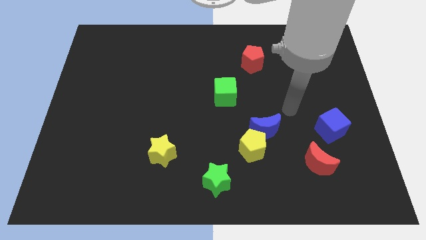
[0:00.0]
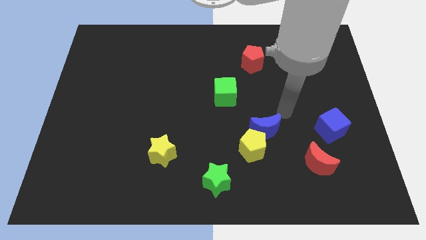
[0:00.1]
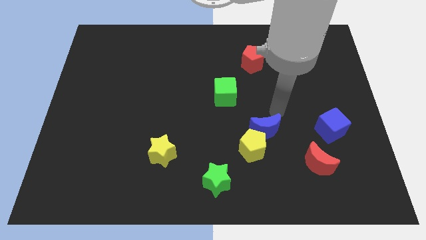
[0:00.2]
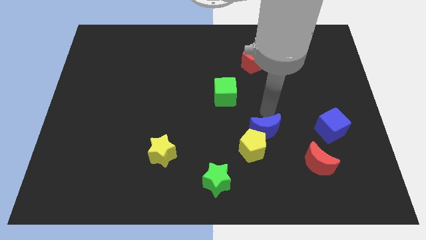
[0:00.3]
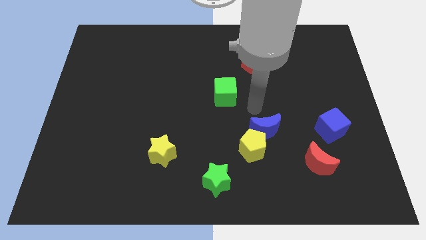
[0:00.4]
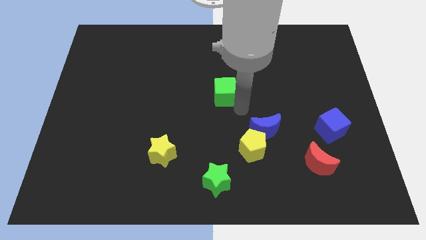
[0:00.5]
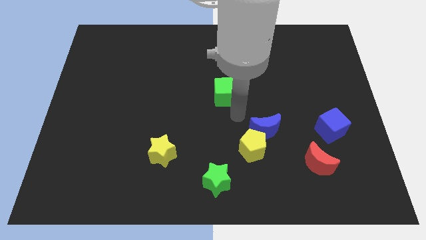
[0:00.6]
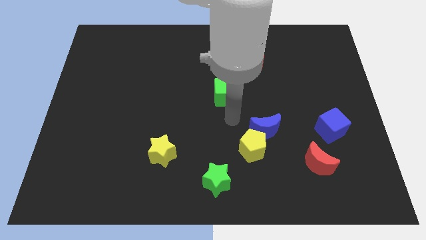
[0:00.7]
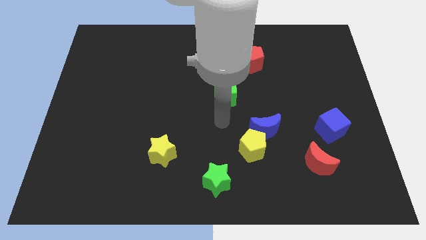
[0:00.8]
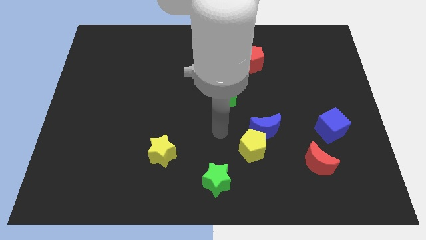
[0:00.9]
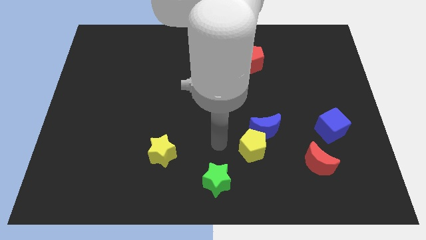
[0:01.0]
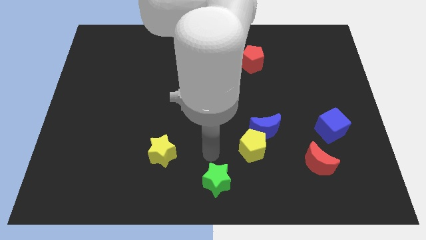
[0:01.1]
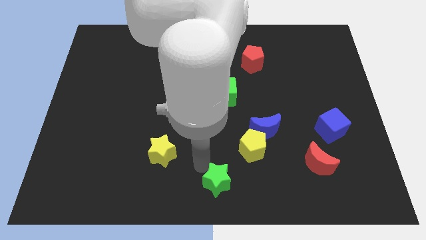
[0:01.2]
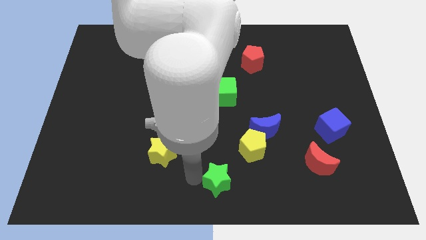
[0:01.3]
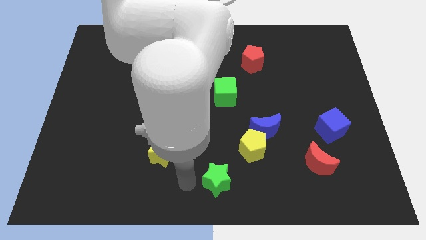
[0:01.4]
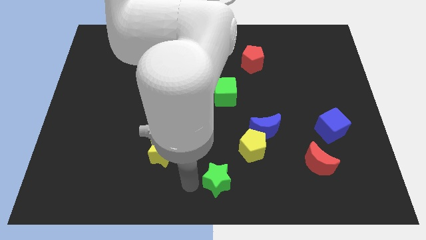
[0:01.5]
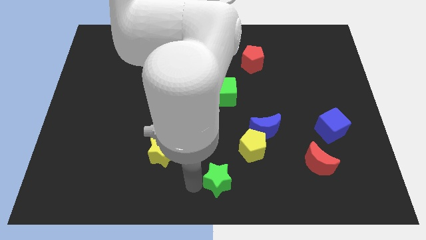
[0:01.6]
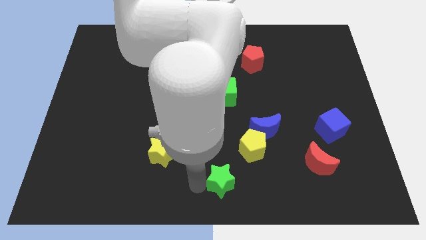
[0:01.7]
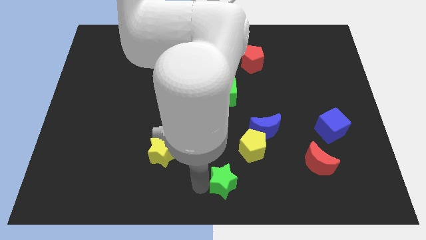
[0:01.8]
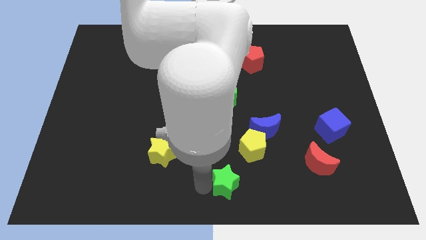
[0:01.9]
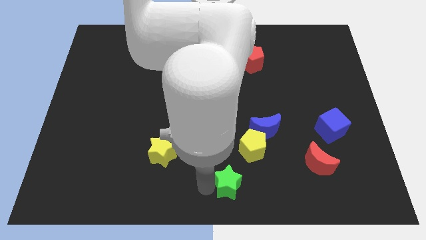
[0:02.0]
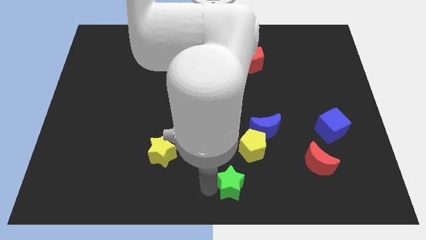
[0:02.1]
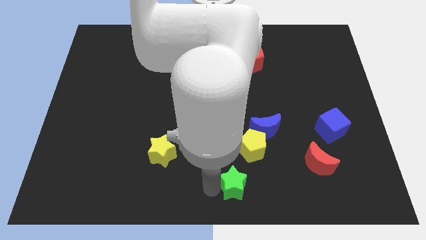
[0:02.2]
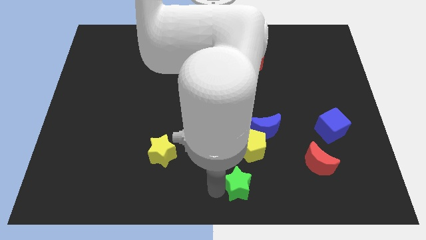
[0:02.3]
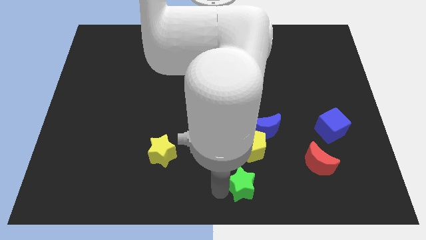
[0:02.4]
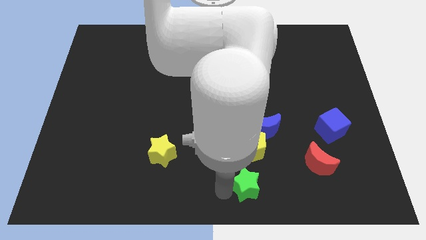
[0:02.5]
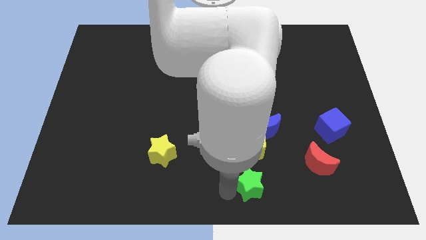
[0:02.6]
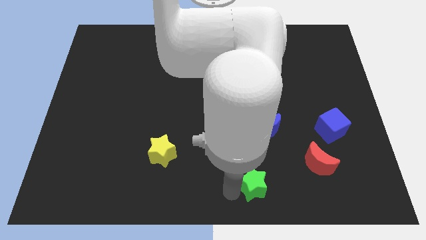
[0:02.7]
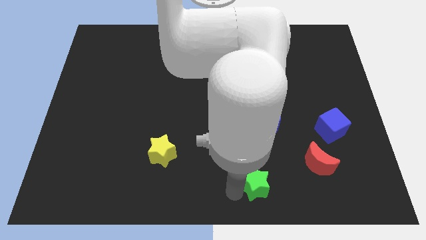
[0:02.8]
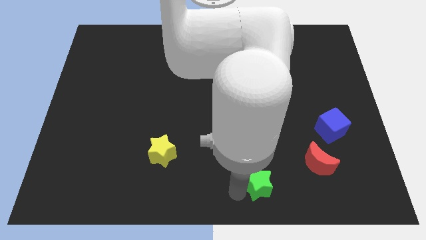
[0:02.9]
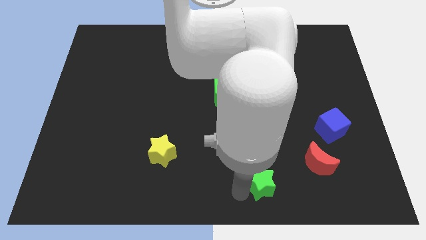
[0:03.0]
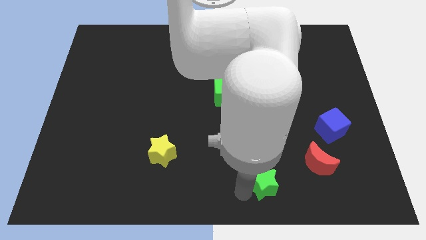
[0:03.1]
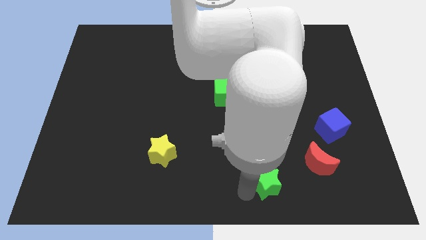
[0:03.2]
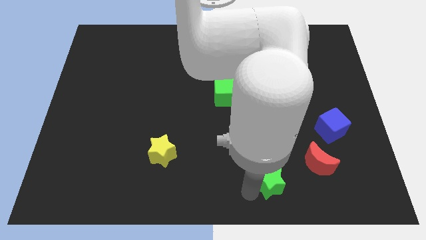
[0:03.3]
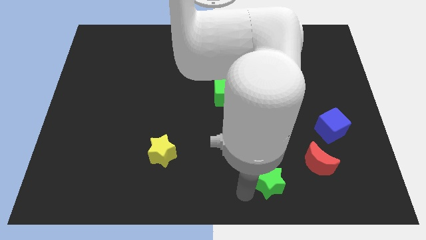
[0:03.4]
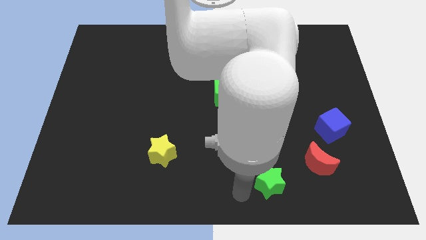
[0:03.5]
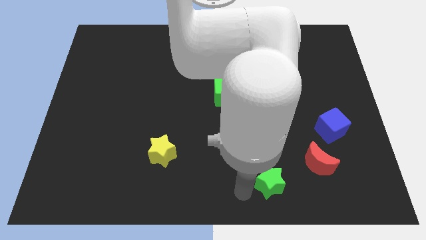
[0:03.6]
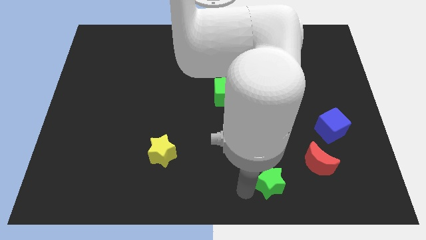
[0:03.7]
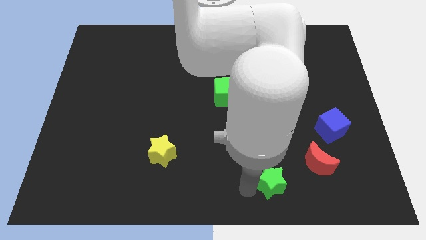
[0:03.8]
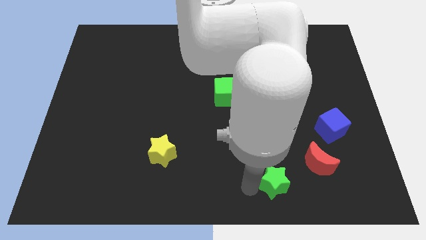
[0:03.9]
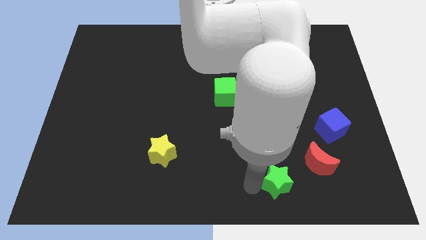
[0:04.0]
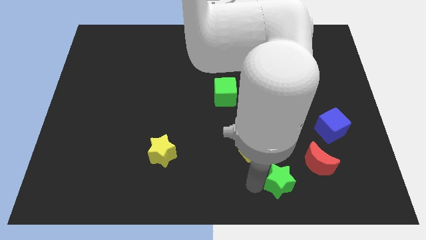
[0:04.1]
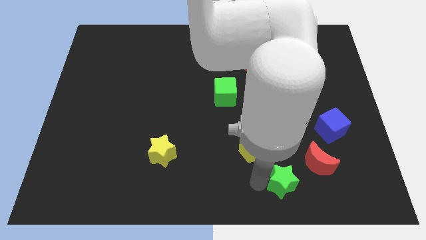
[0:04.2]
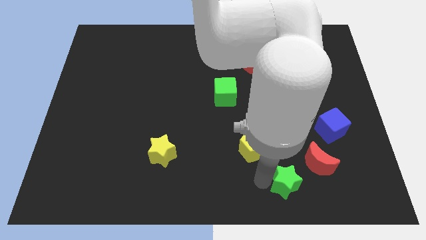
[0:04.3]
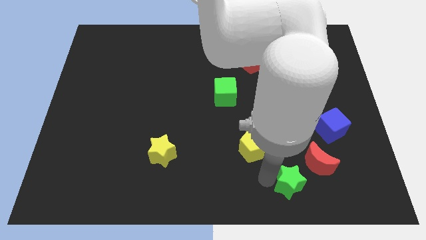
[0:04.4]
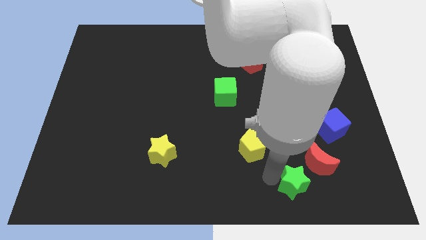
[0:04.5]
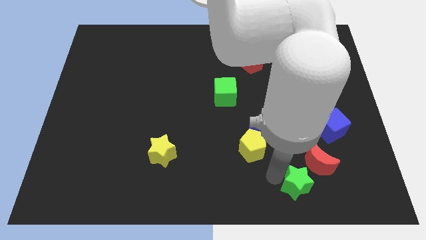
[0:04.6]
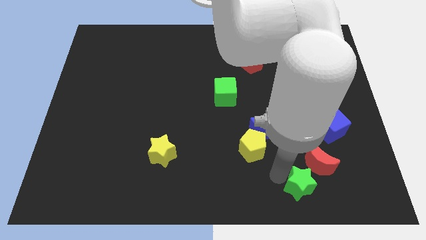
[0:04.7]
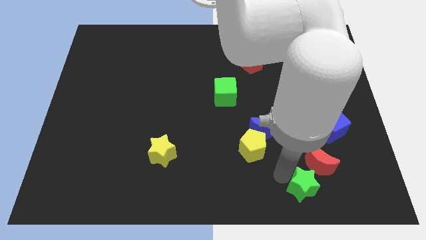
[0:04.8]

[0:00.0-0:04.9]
move the green star to the red moon

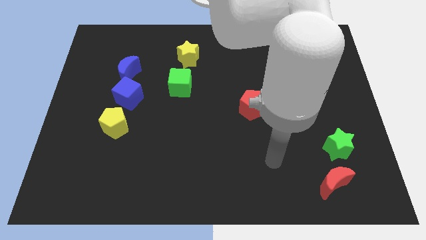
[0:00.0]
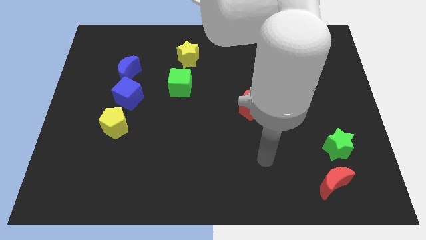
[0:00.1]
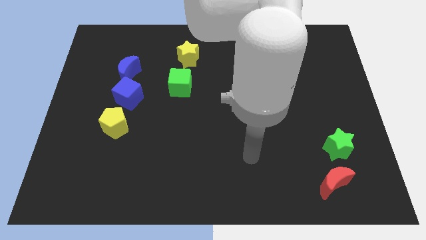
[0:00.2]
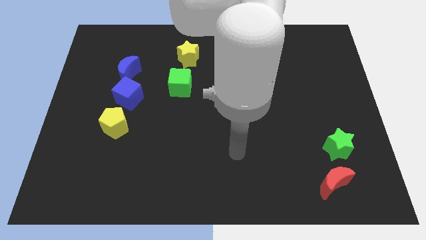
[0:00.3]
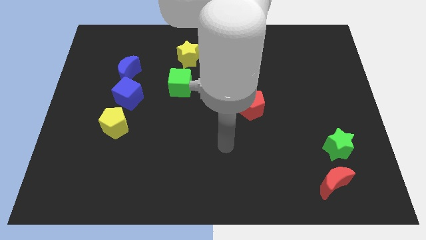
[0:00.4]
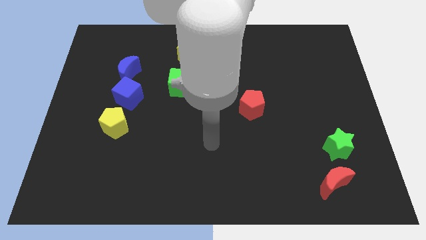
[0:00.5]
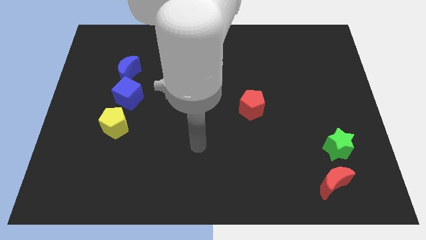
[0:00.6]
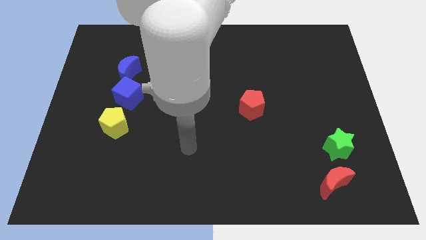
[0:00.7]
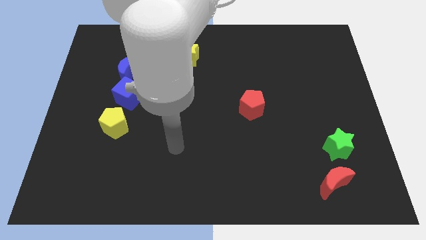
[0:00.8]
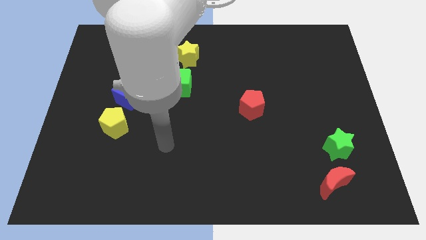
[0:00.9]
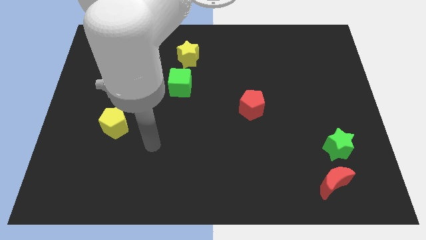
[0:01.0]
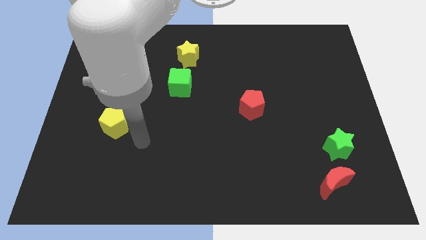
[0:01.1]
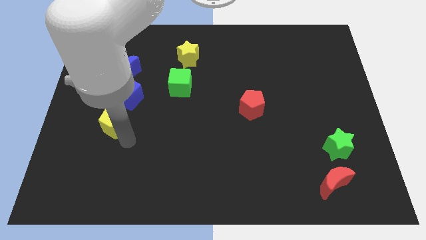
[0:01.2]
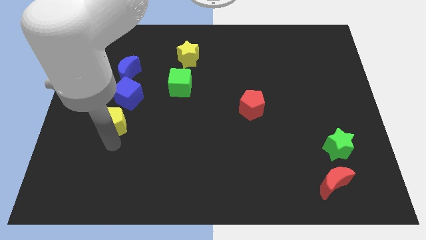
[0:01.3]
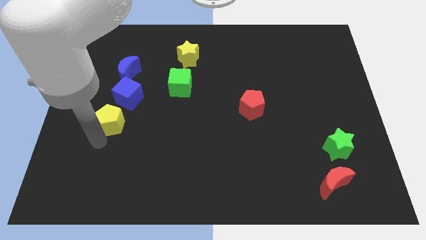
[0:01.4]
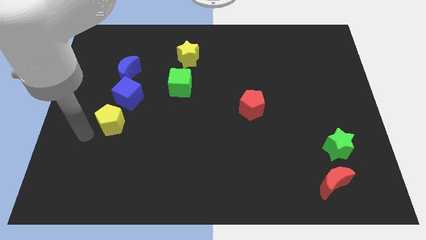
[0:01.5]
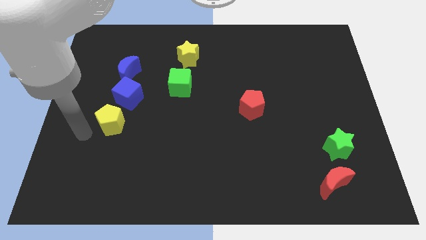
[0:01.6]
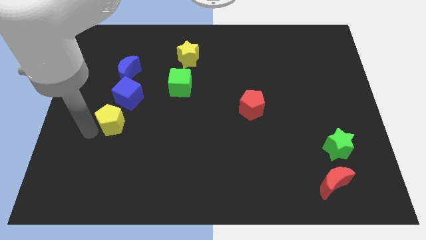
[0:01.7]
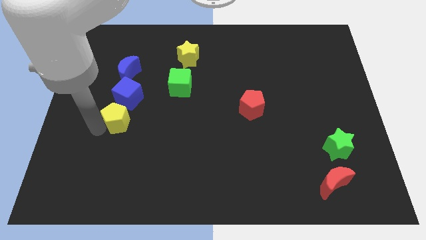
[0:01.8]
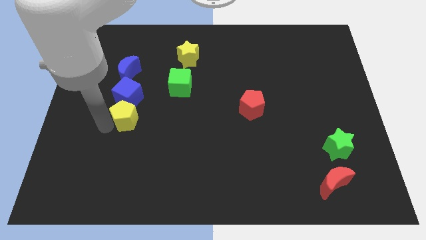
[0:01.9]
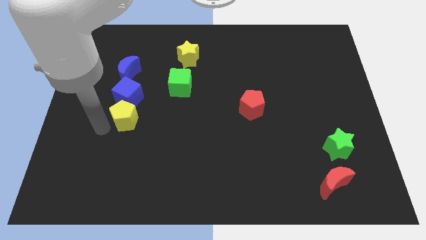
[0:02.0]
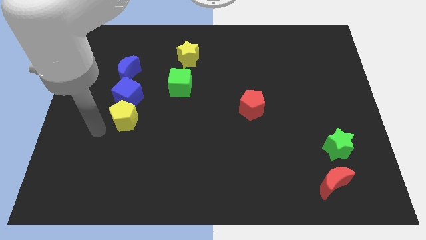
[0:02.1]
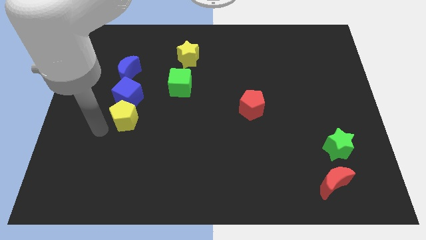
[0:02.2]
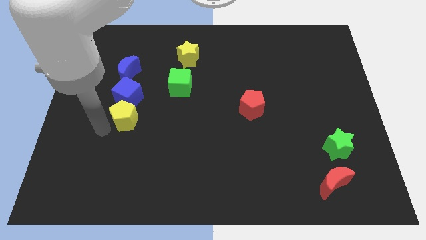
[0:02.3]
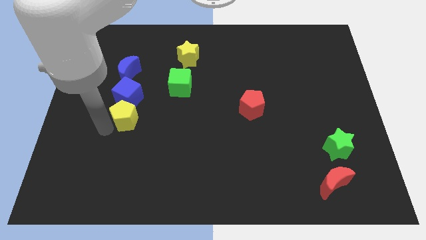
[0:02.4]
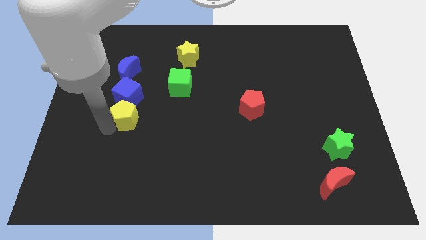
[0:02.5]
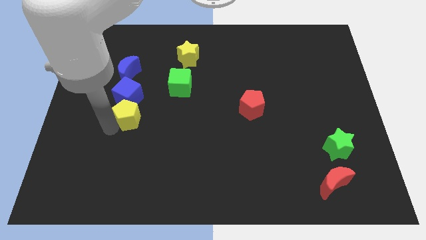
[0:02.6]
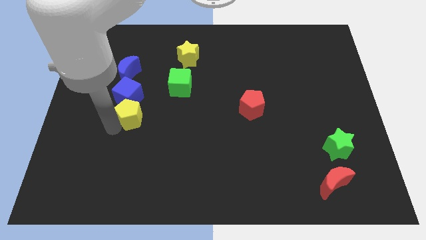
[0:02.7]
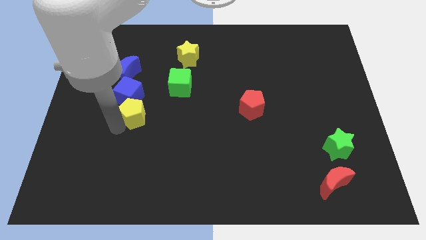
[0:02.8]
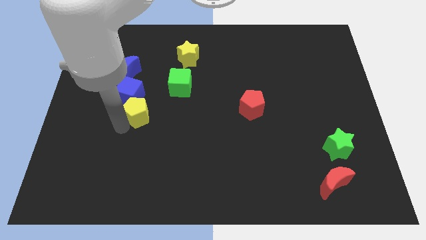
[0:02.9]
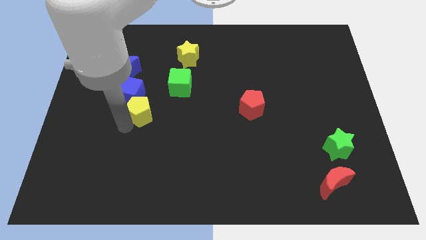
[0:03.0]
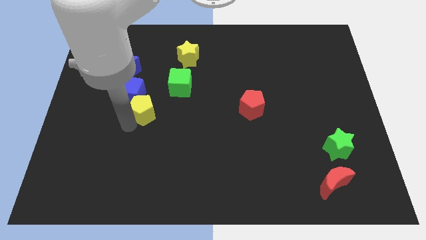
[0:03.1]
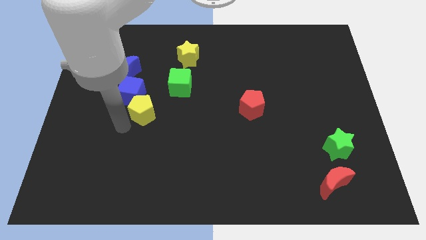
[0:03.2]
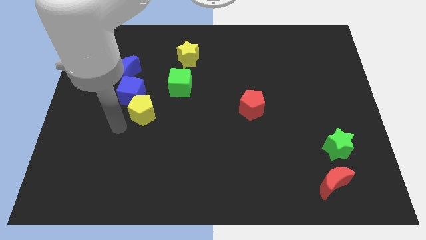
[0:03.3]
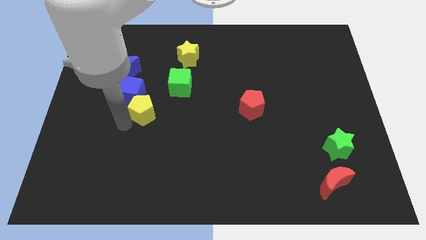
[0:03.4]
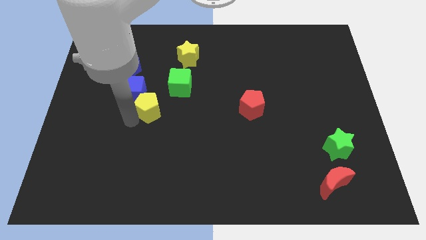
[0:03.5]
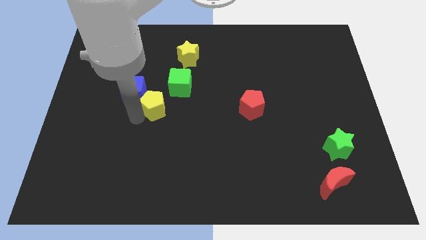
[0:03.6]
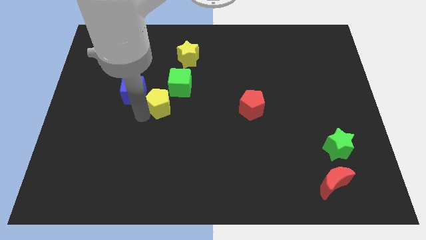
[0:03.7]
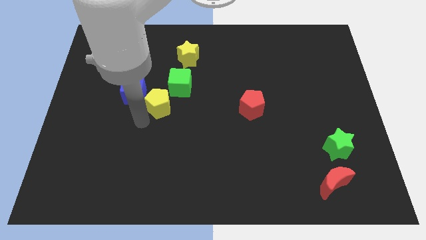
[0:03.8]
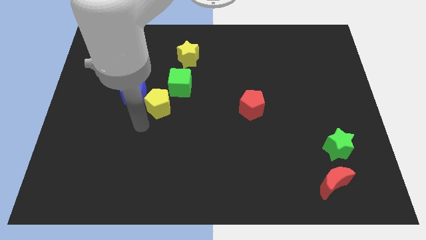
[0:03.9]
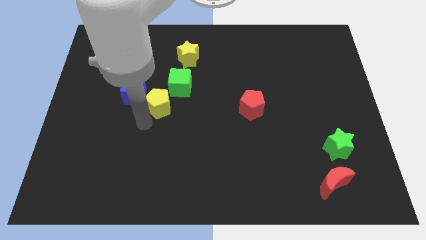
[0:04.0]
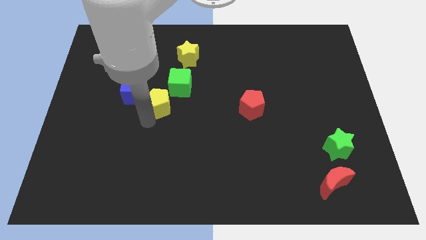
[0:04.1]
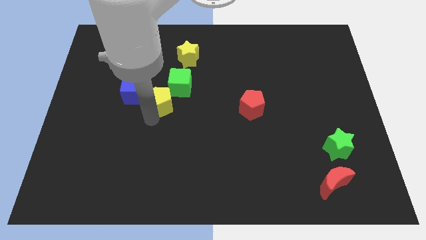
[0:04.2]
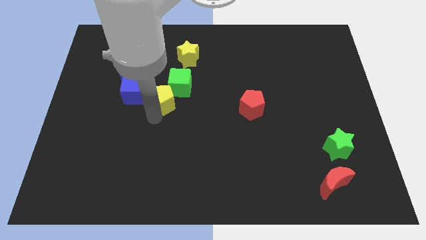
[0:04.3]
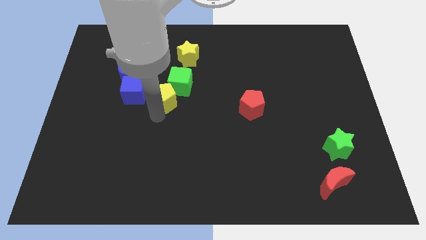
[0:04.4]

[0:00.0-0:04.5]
slide the yellow pentagon to the green cube
